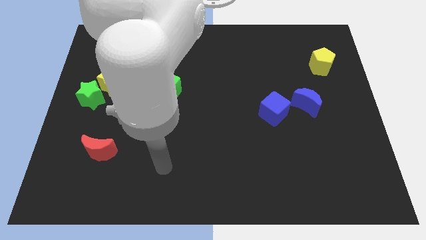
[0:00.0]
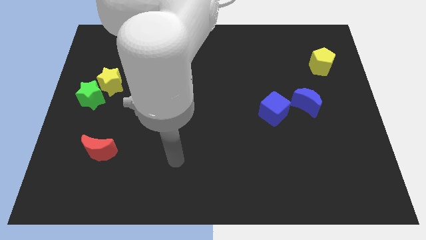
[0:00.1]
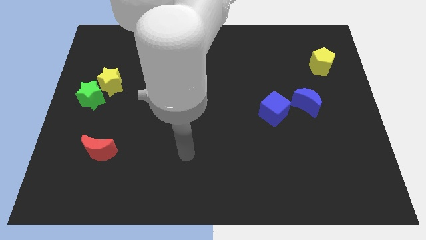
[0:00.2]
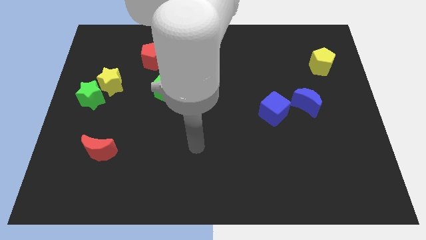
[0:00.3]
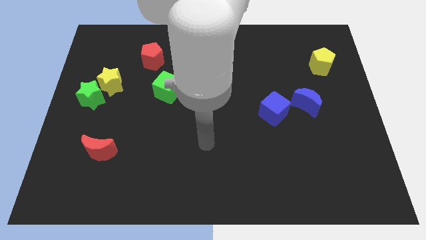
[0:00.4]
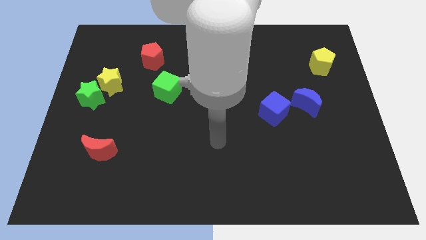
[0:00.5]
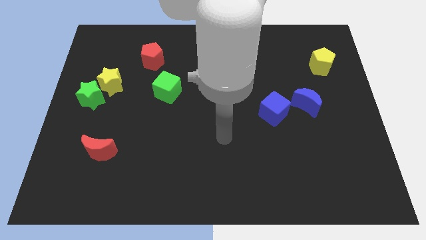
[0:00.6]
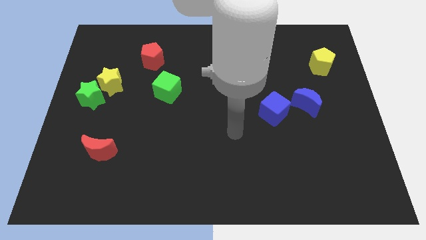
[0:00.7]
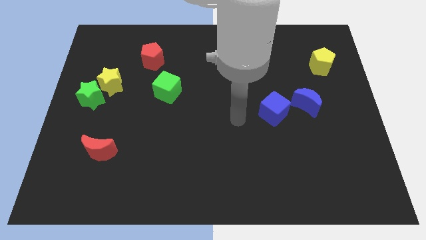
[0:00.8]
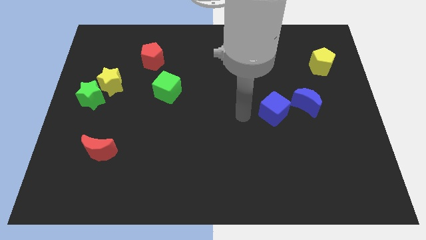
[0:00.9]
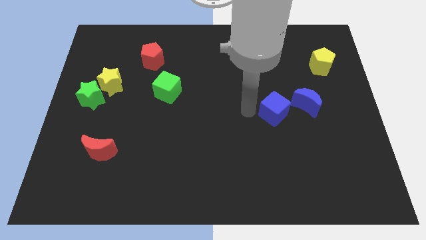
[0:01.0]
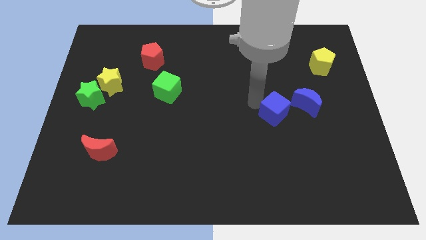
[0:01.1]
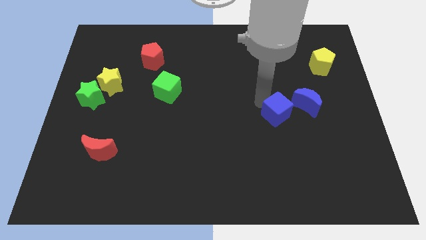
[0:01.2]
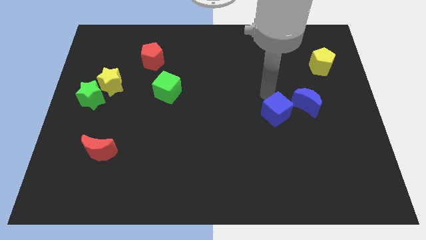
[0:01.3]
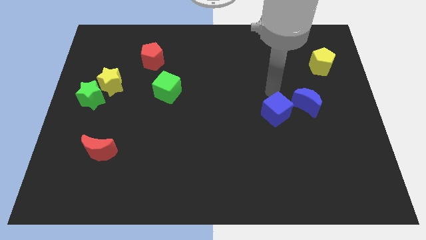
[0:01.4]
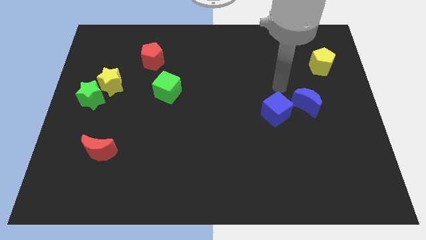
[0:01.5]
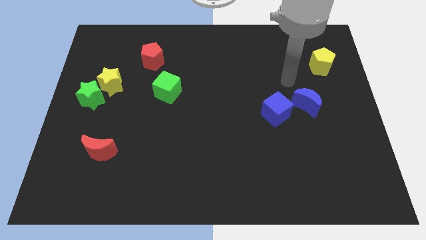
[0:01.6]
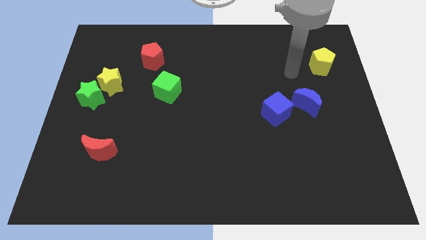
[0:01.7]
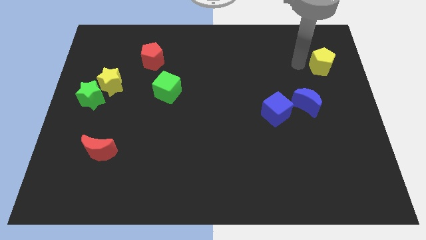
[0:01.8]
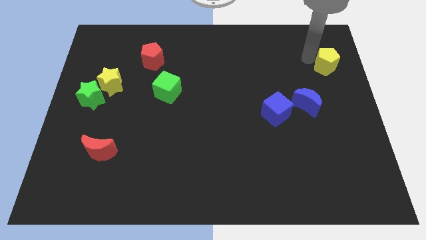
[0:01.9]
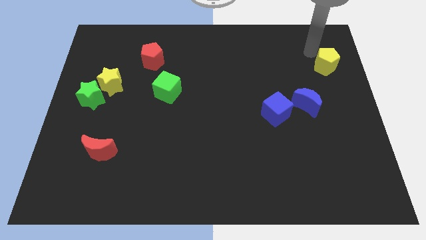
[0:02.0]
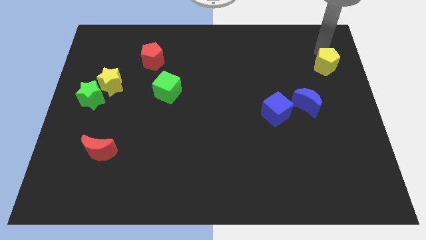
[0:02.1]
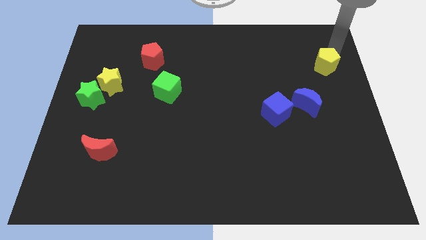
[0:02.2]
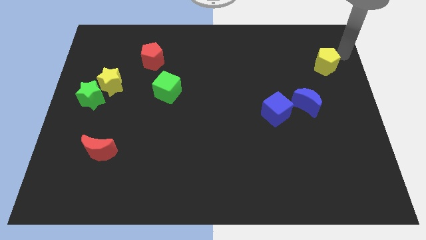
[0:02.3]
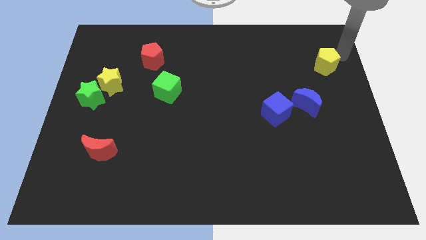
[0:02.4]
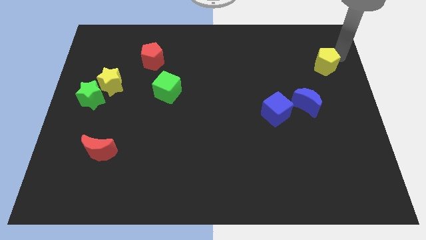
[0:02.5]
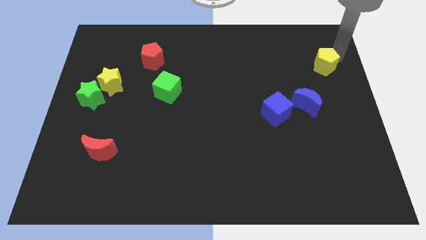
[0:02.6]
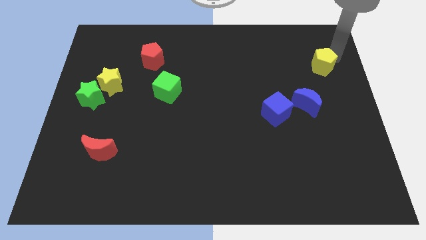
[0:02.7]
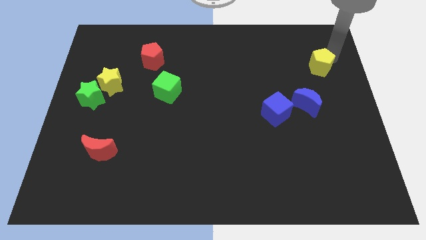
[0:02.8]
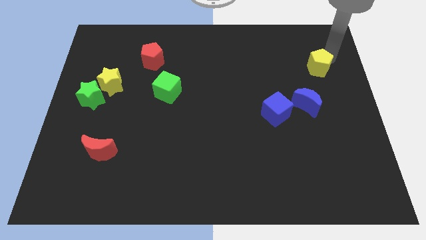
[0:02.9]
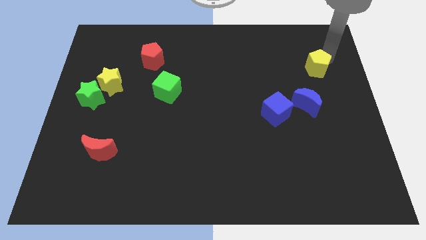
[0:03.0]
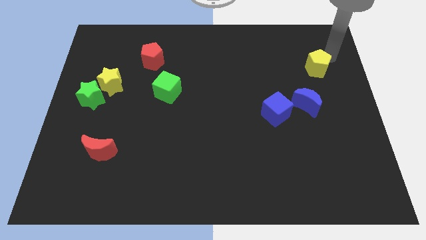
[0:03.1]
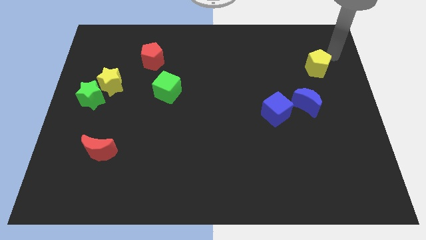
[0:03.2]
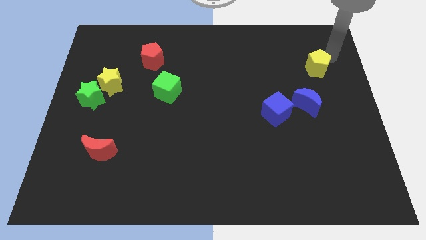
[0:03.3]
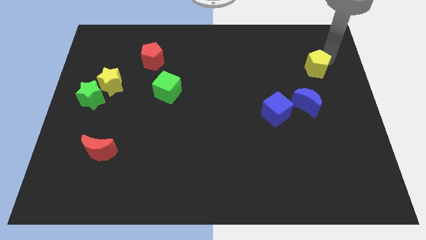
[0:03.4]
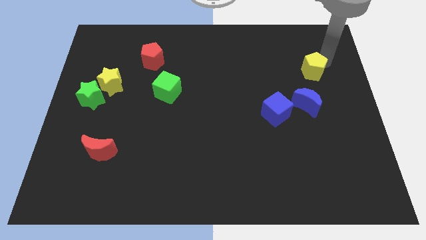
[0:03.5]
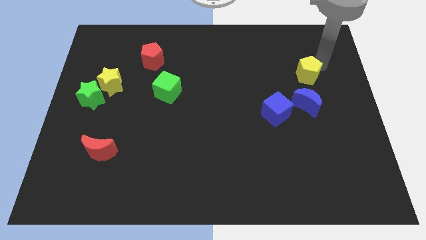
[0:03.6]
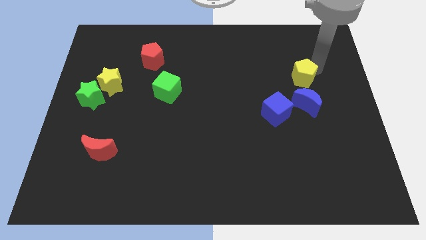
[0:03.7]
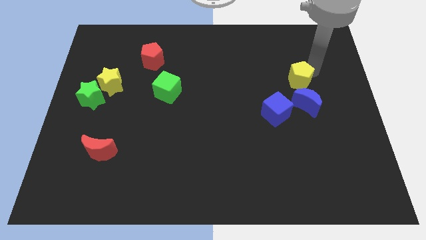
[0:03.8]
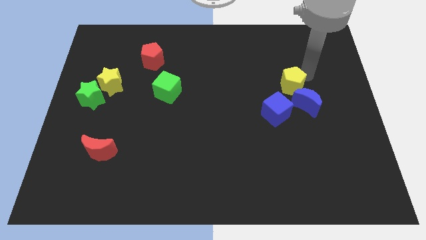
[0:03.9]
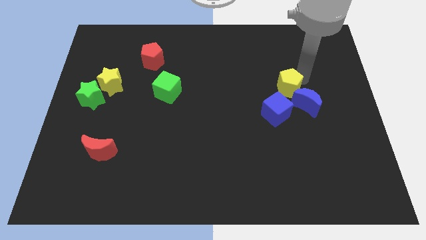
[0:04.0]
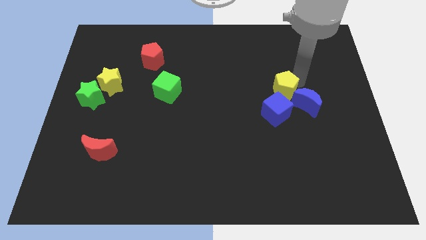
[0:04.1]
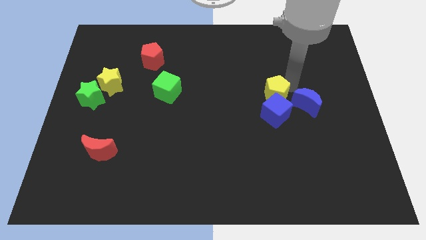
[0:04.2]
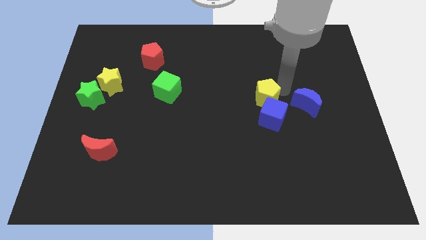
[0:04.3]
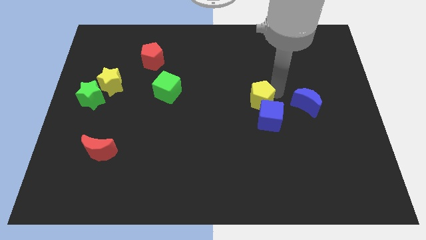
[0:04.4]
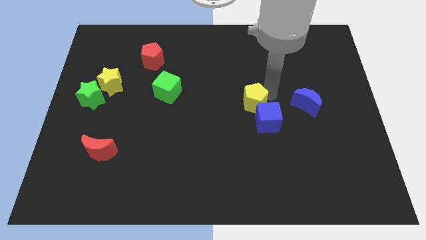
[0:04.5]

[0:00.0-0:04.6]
move the yellow pentagon diagonally downwards and left

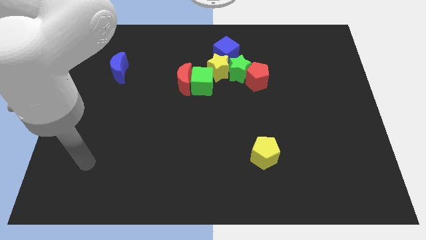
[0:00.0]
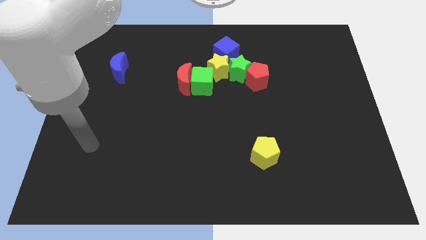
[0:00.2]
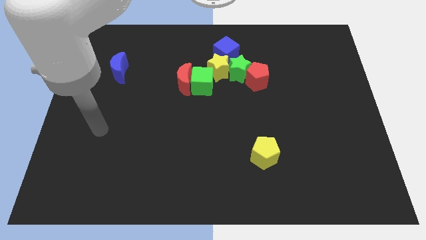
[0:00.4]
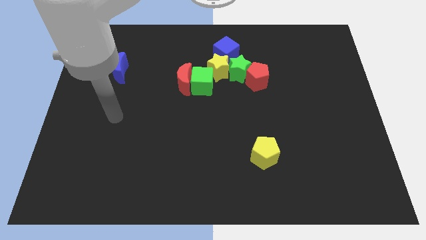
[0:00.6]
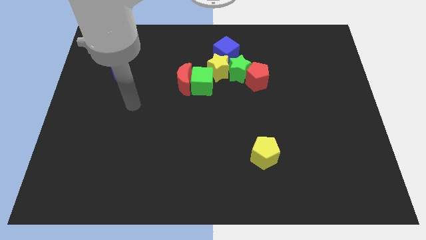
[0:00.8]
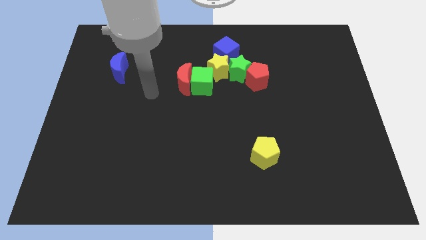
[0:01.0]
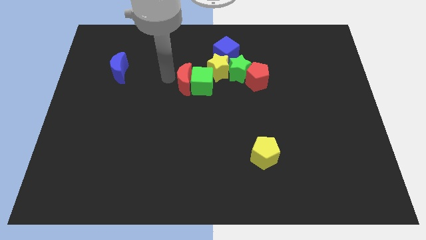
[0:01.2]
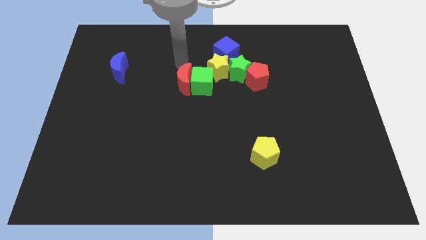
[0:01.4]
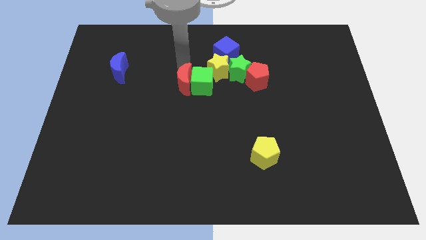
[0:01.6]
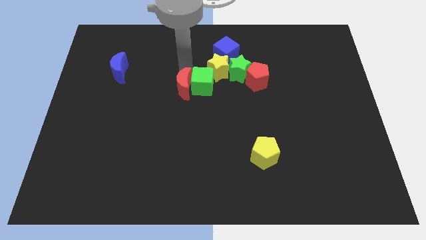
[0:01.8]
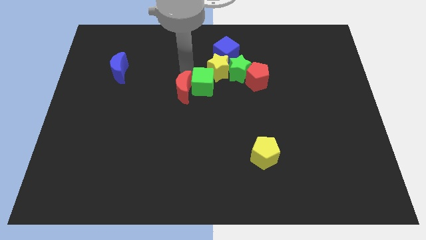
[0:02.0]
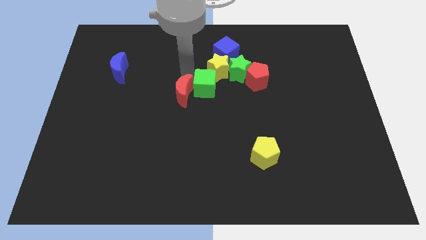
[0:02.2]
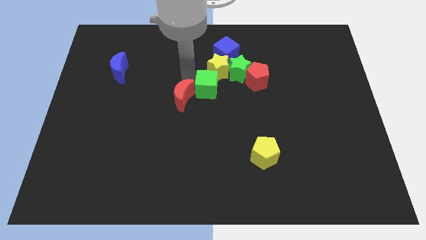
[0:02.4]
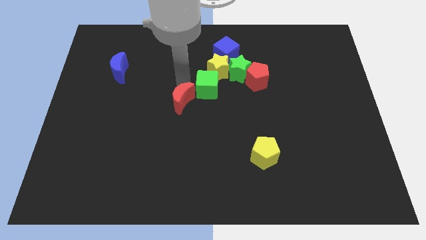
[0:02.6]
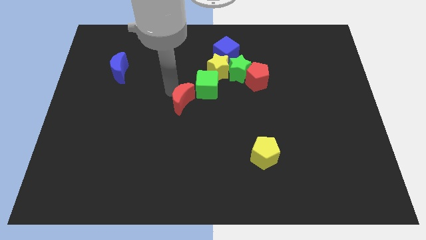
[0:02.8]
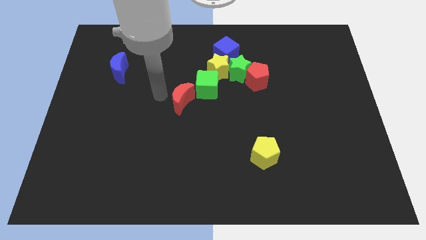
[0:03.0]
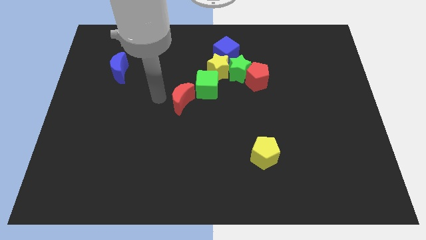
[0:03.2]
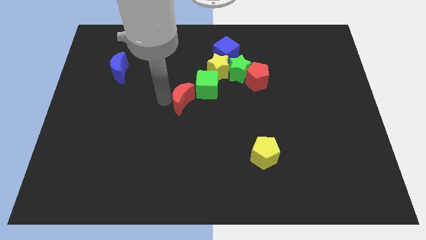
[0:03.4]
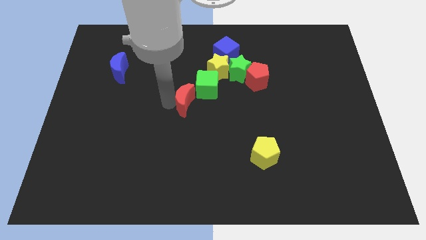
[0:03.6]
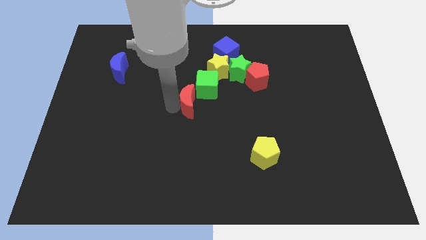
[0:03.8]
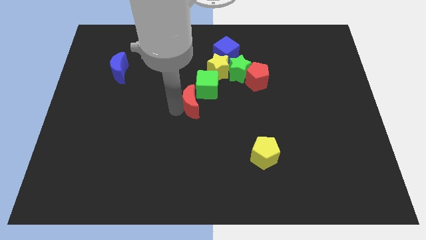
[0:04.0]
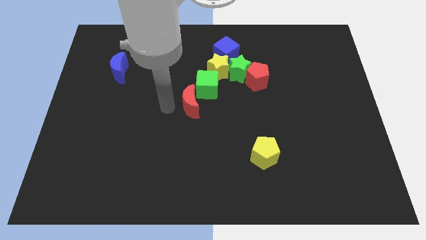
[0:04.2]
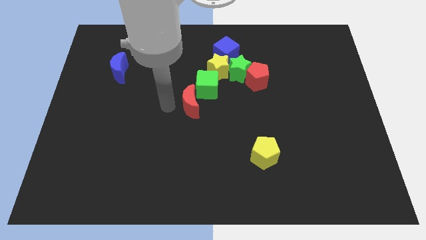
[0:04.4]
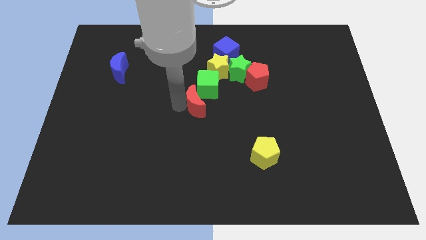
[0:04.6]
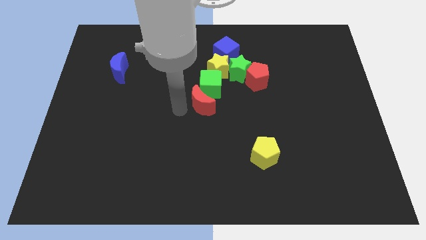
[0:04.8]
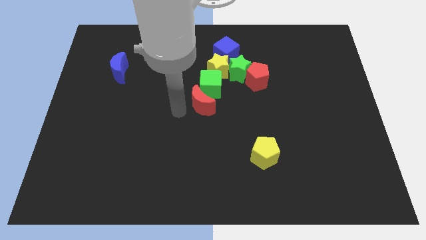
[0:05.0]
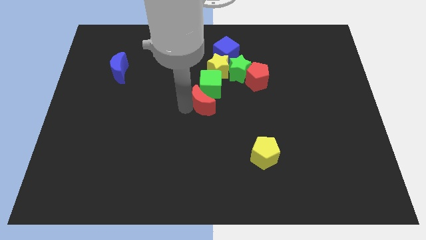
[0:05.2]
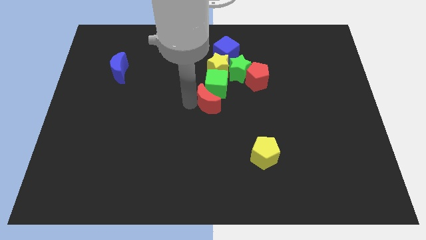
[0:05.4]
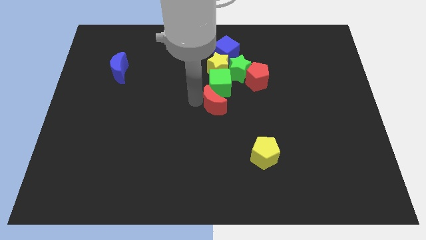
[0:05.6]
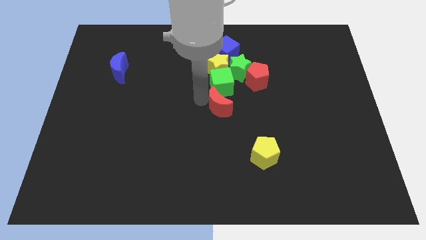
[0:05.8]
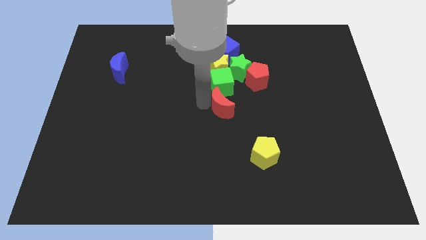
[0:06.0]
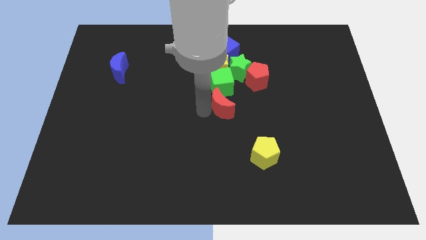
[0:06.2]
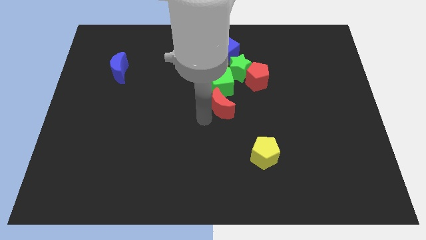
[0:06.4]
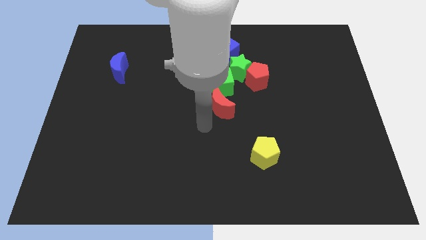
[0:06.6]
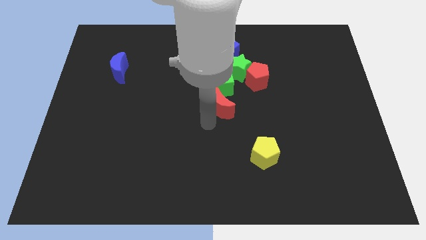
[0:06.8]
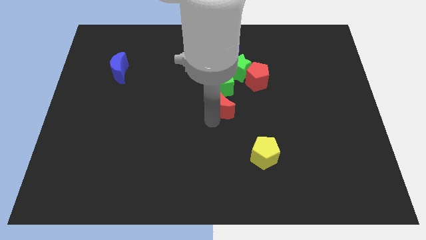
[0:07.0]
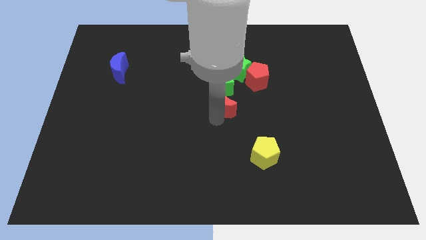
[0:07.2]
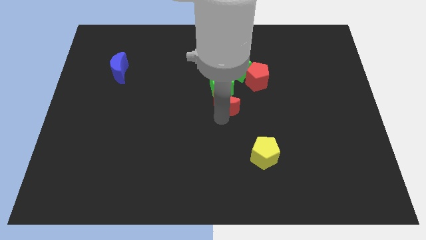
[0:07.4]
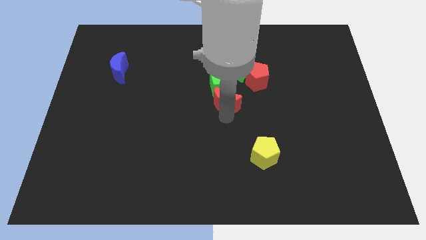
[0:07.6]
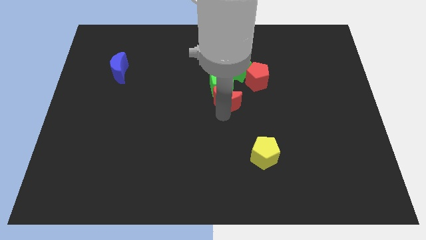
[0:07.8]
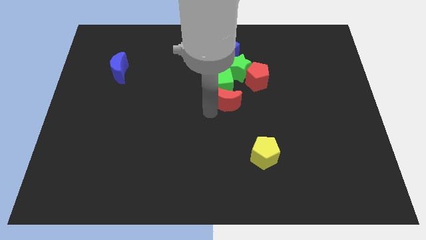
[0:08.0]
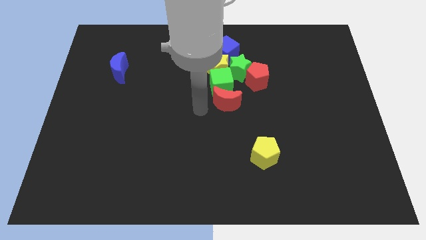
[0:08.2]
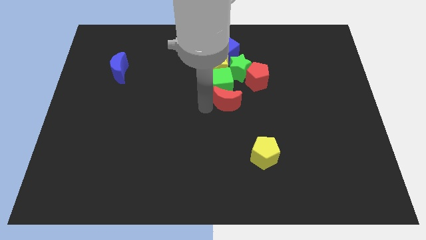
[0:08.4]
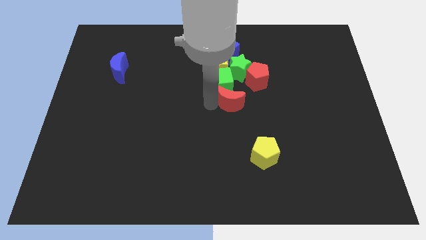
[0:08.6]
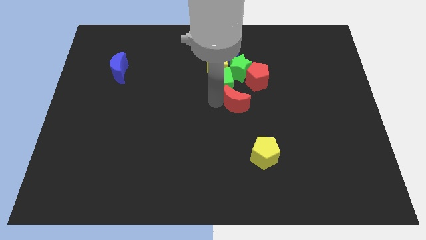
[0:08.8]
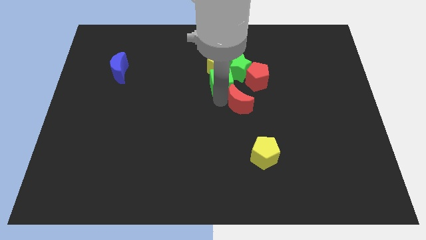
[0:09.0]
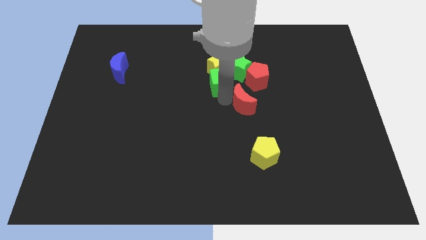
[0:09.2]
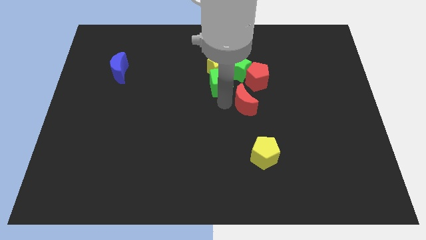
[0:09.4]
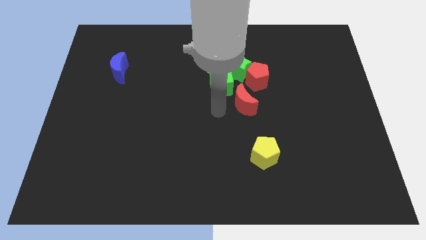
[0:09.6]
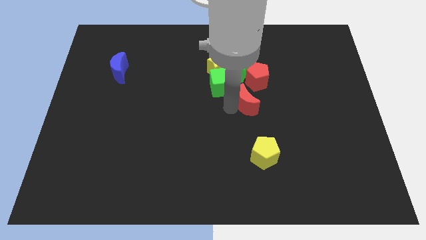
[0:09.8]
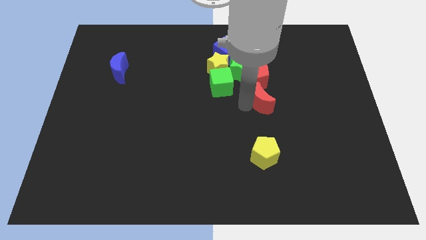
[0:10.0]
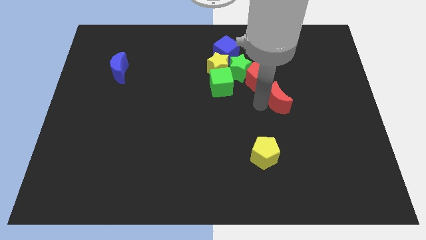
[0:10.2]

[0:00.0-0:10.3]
slide the red moon right
